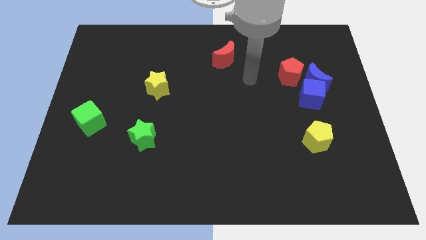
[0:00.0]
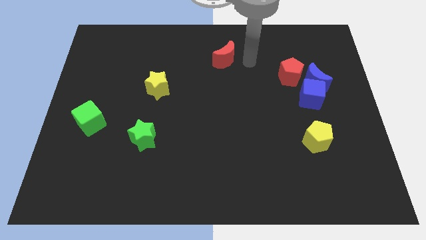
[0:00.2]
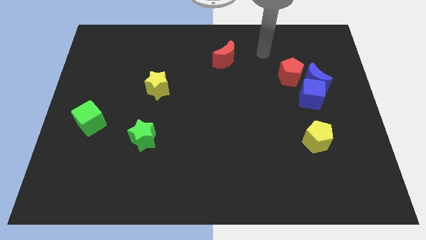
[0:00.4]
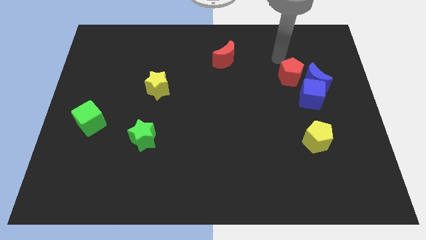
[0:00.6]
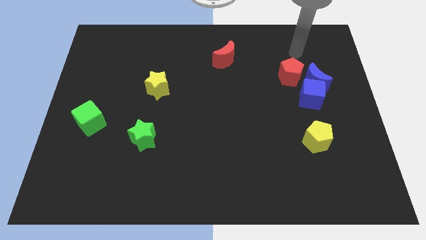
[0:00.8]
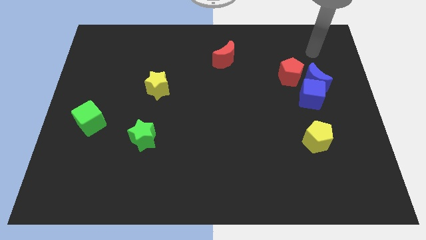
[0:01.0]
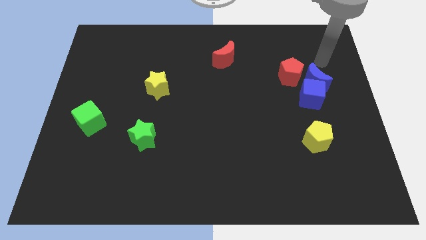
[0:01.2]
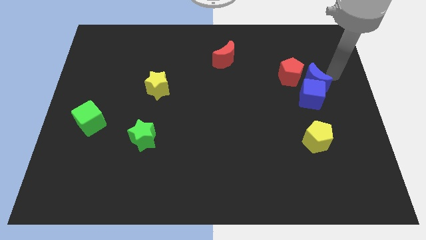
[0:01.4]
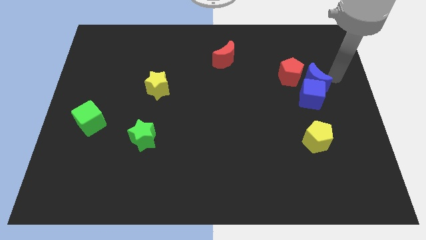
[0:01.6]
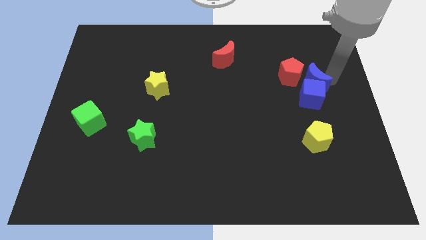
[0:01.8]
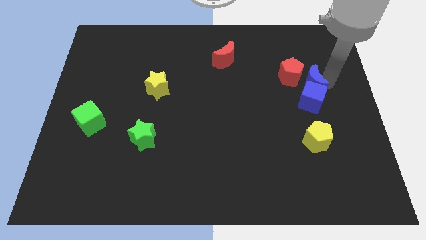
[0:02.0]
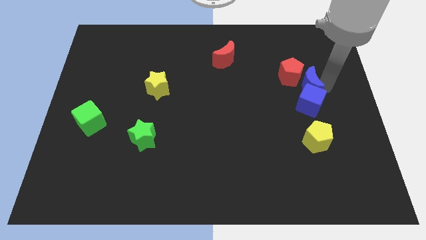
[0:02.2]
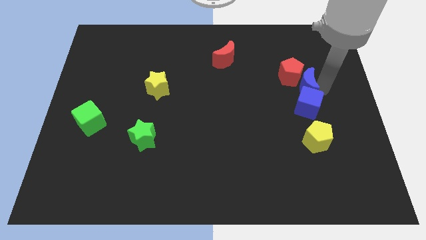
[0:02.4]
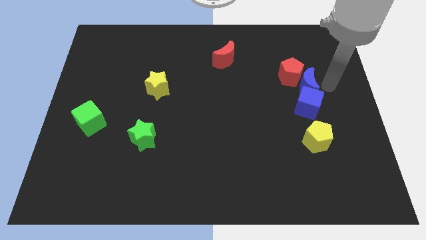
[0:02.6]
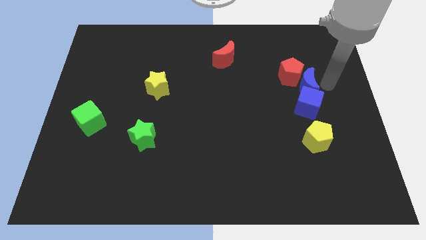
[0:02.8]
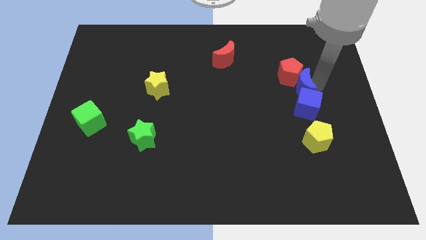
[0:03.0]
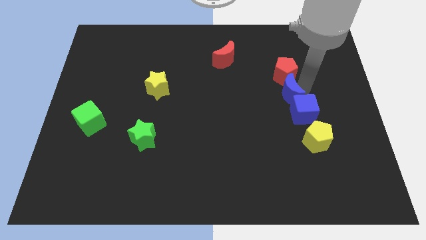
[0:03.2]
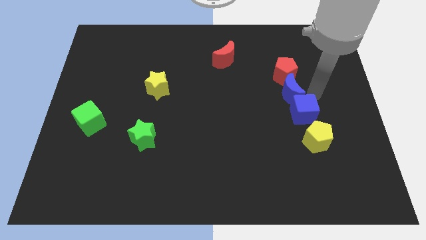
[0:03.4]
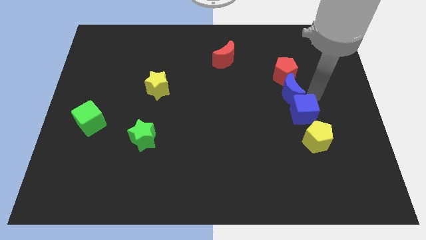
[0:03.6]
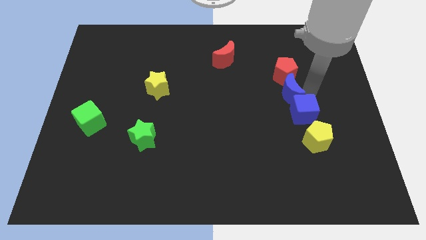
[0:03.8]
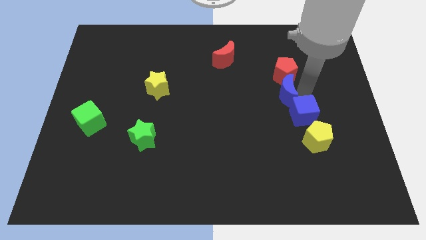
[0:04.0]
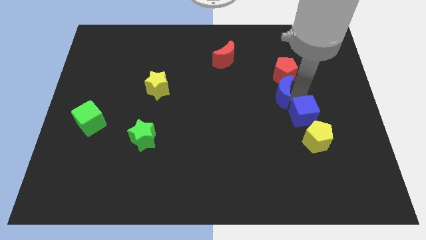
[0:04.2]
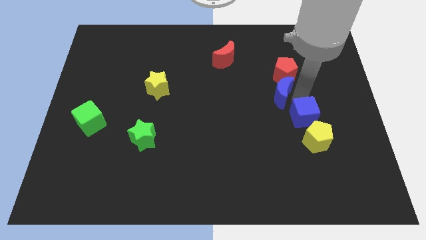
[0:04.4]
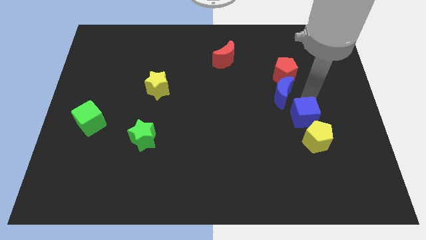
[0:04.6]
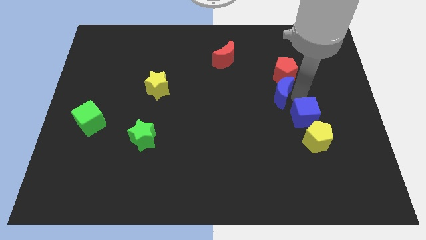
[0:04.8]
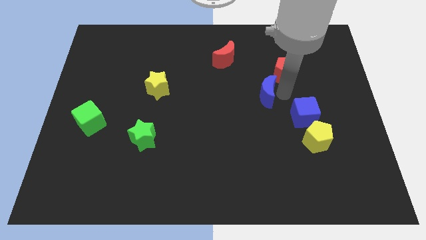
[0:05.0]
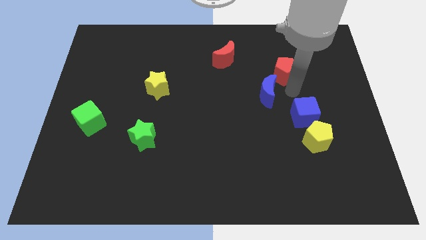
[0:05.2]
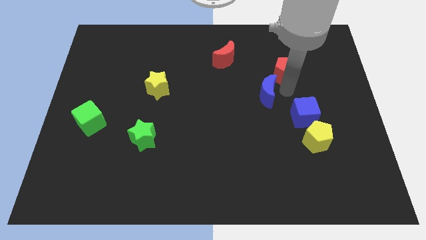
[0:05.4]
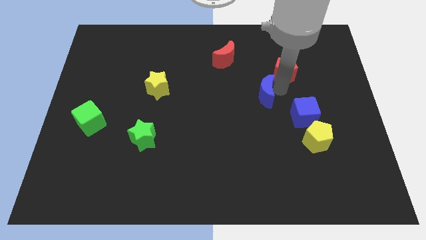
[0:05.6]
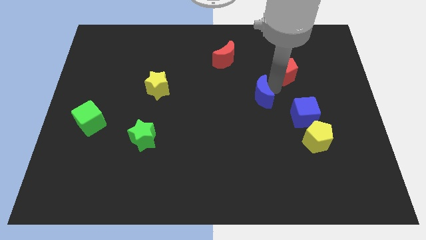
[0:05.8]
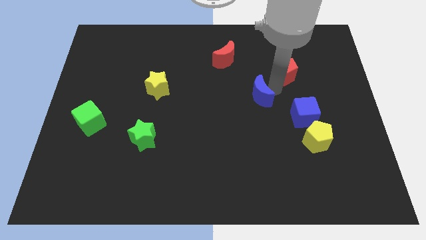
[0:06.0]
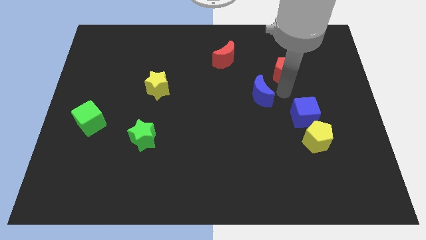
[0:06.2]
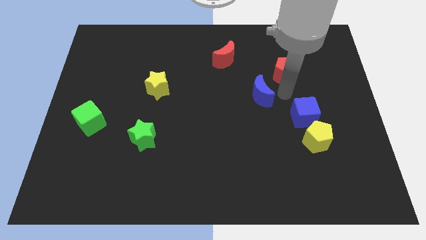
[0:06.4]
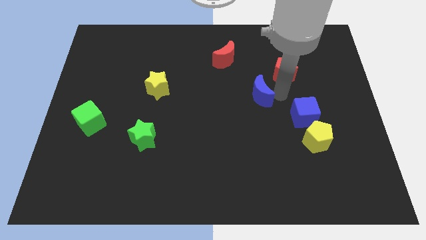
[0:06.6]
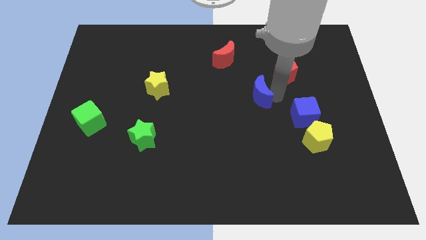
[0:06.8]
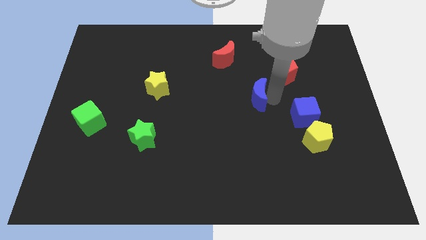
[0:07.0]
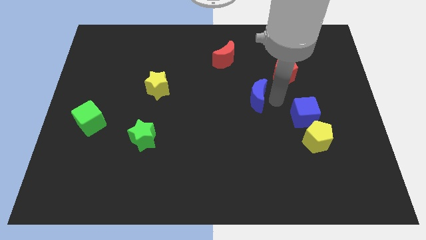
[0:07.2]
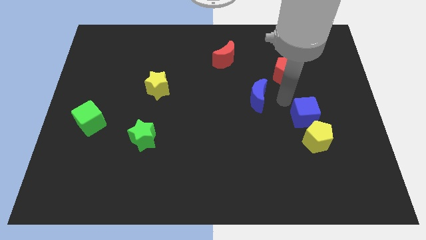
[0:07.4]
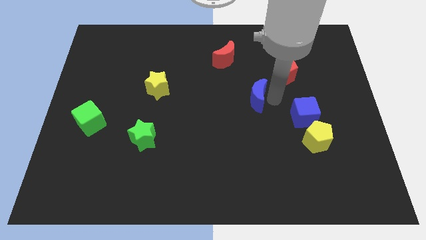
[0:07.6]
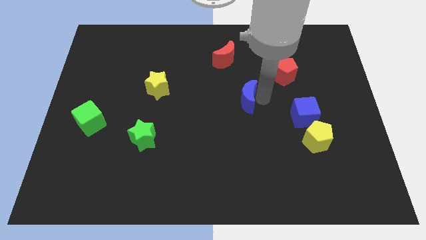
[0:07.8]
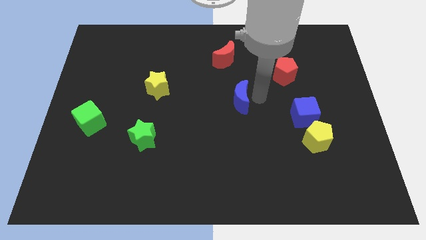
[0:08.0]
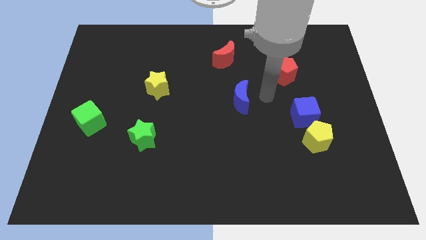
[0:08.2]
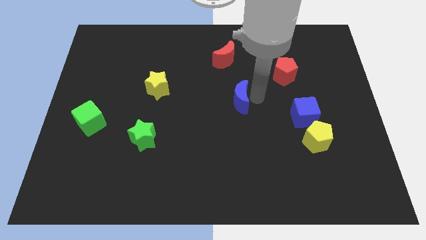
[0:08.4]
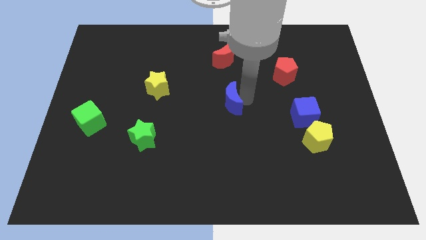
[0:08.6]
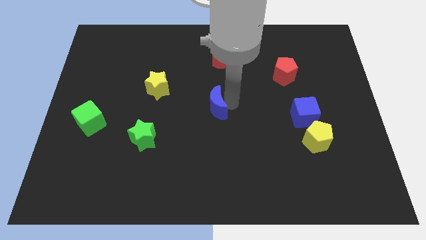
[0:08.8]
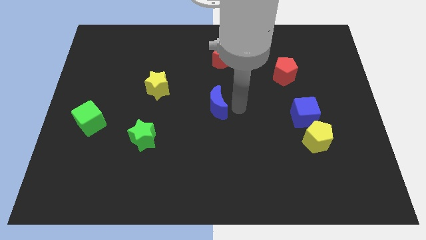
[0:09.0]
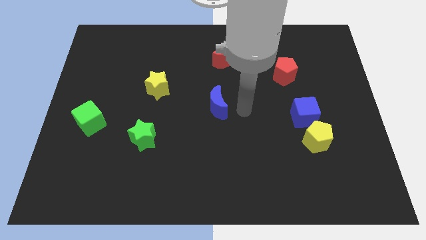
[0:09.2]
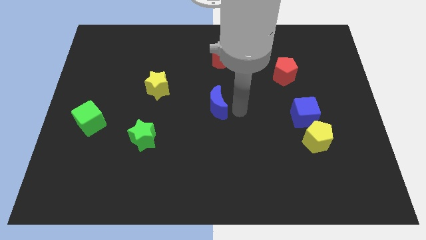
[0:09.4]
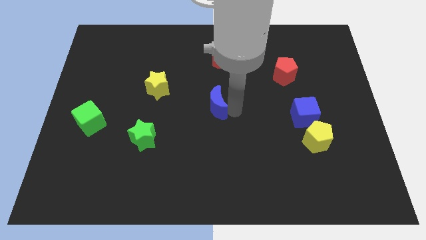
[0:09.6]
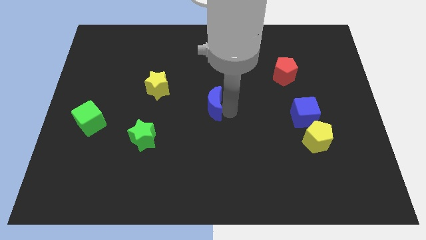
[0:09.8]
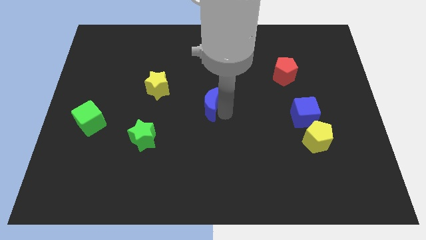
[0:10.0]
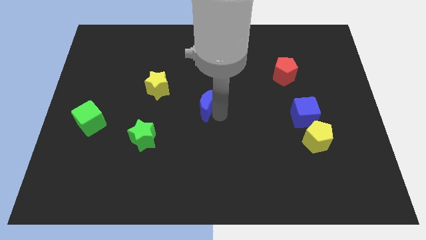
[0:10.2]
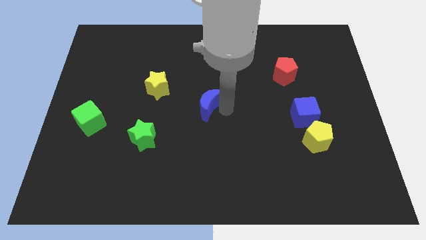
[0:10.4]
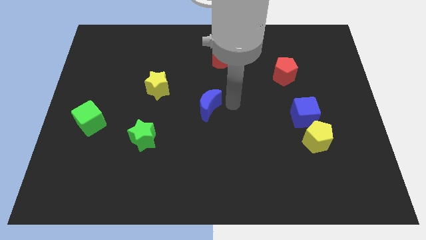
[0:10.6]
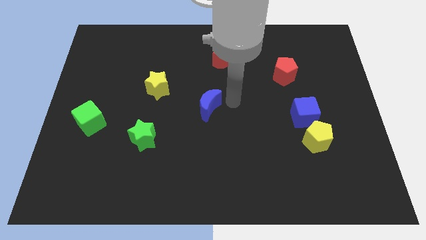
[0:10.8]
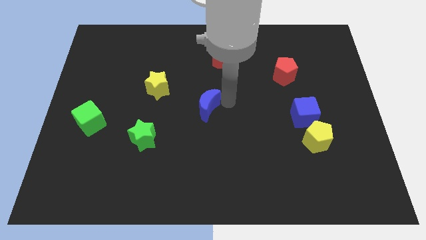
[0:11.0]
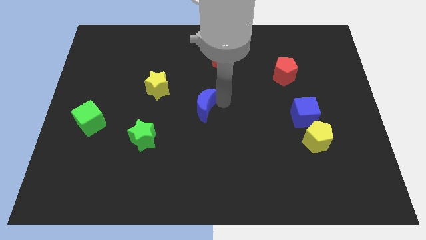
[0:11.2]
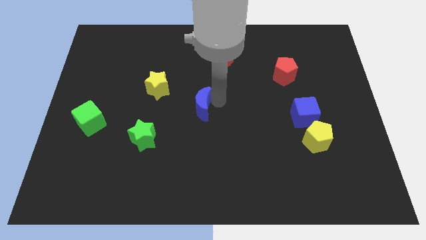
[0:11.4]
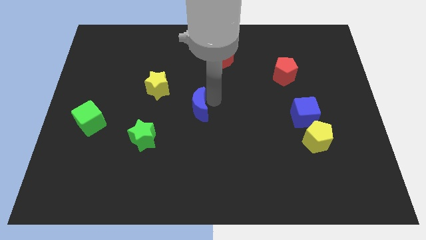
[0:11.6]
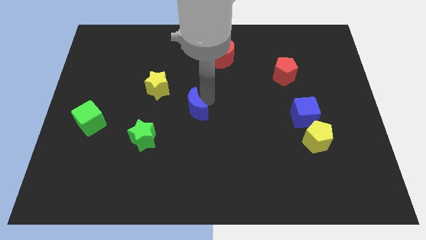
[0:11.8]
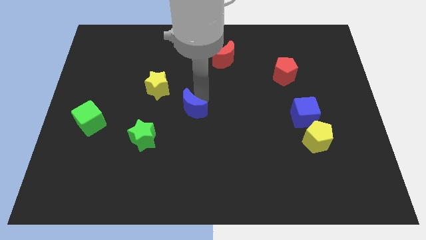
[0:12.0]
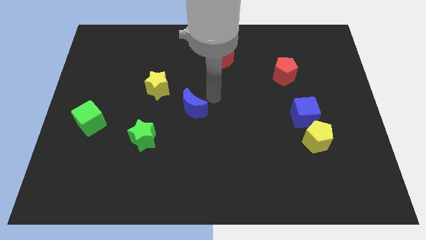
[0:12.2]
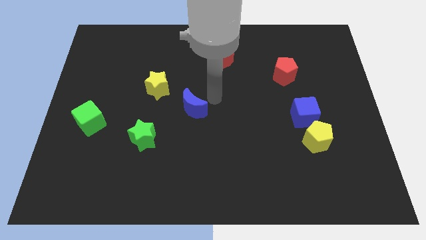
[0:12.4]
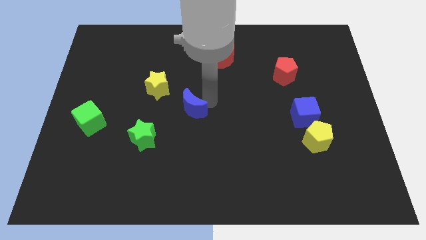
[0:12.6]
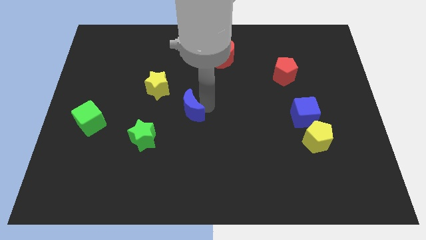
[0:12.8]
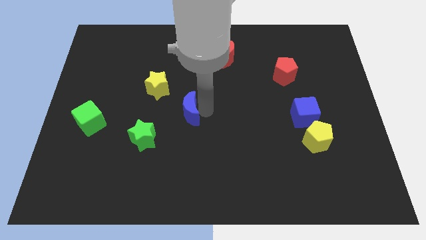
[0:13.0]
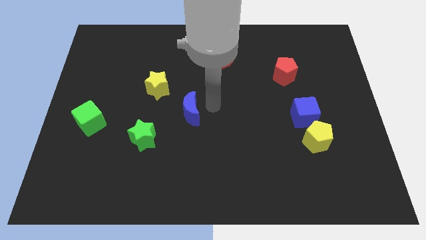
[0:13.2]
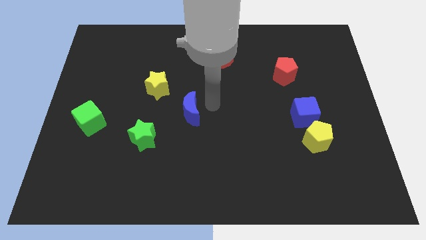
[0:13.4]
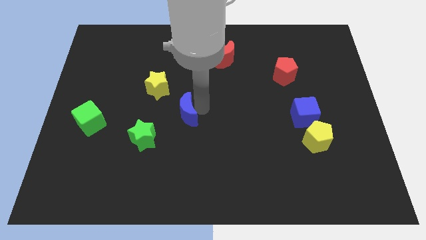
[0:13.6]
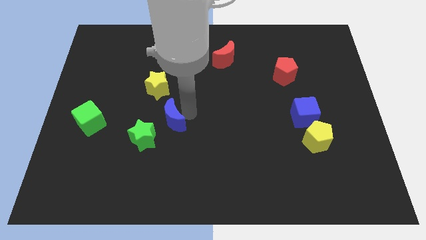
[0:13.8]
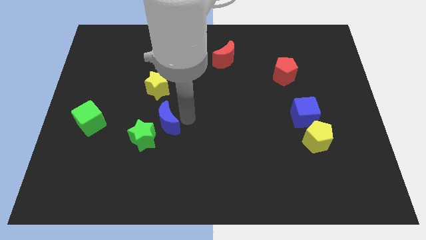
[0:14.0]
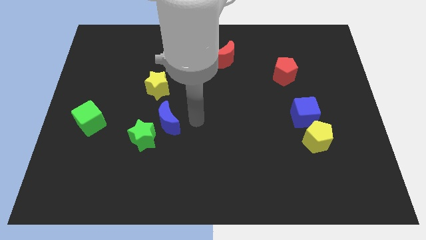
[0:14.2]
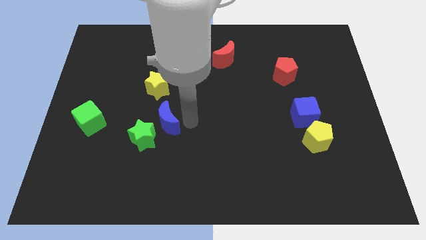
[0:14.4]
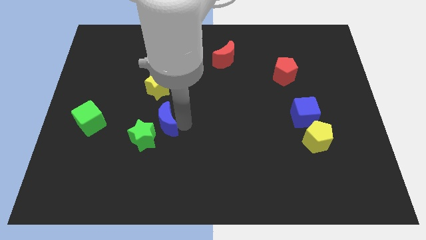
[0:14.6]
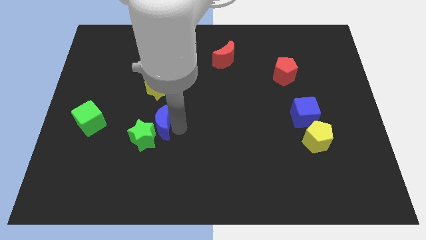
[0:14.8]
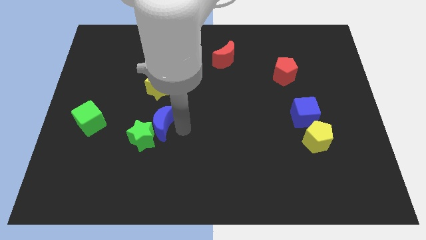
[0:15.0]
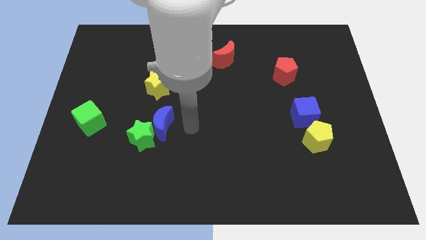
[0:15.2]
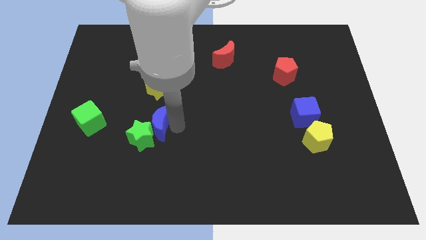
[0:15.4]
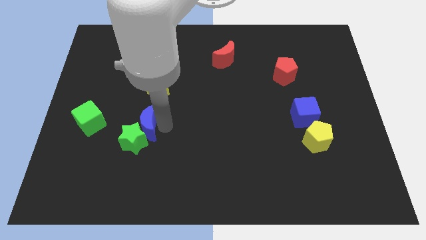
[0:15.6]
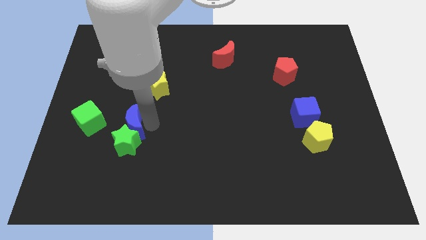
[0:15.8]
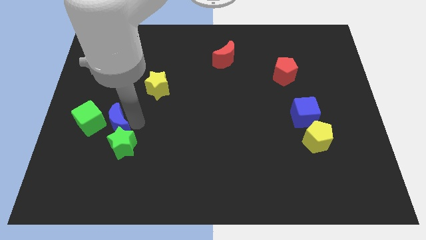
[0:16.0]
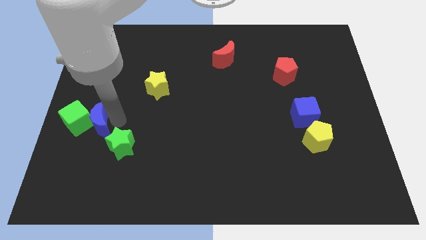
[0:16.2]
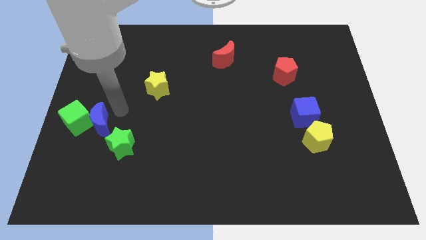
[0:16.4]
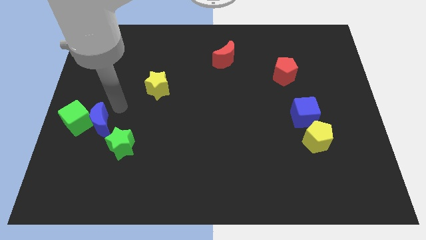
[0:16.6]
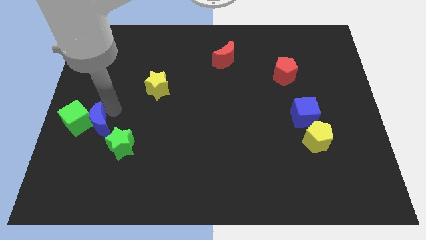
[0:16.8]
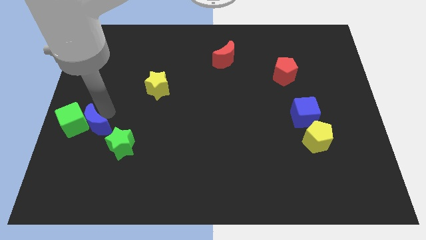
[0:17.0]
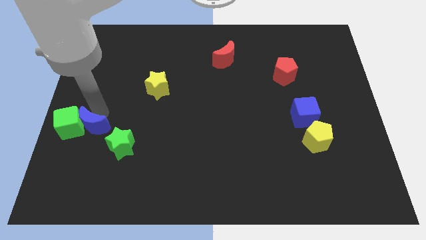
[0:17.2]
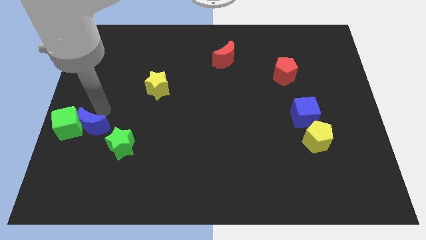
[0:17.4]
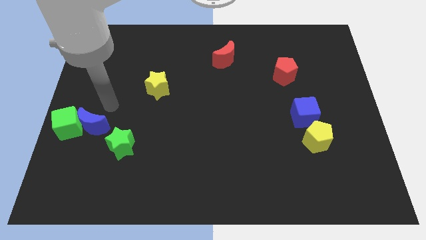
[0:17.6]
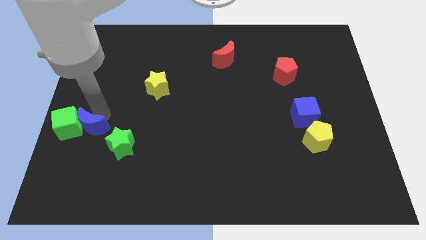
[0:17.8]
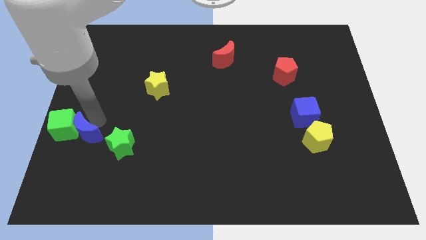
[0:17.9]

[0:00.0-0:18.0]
slide the blue moon to the left side of the green star
